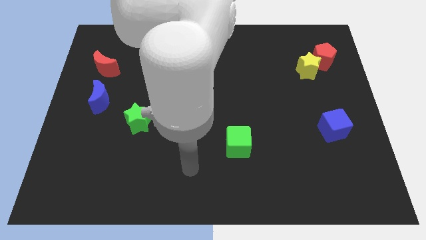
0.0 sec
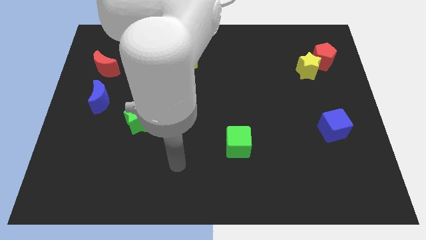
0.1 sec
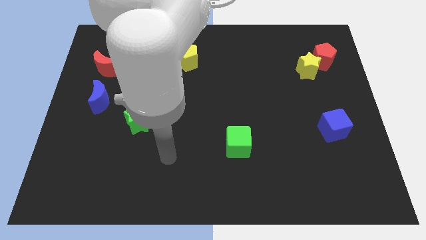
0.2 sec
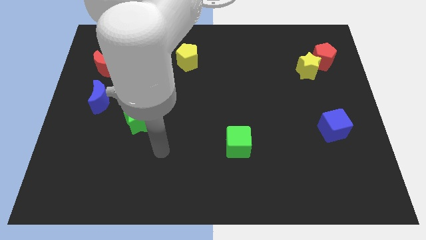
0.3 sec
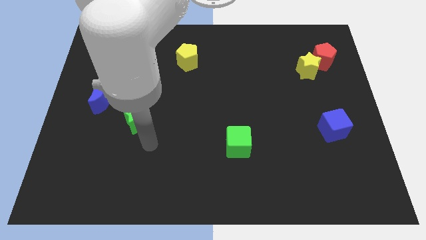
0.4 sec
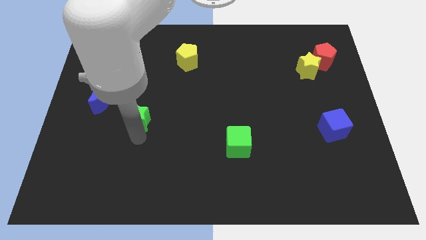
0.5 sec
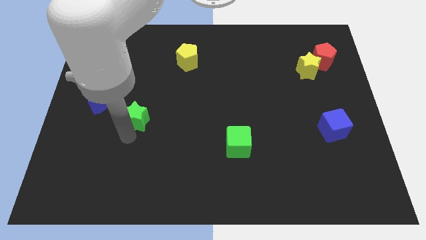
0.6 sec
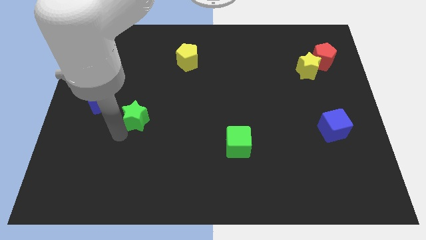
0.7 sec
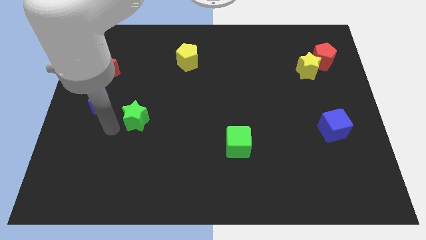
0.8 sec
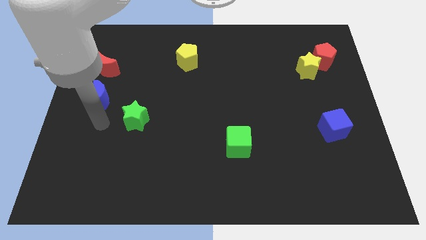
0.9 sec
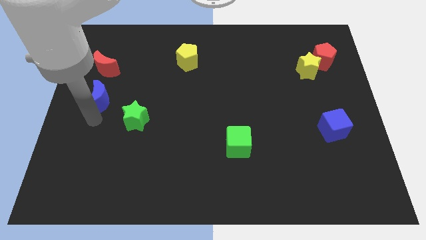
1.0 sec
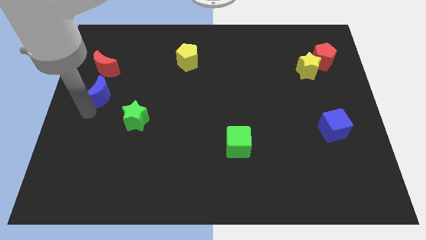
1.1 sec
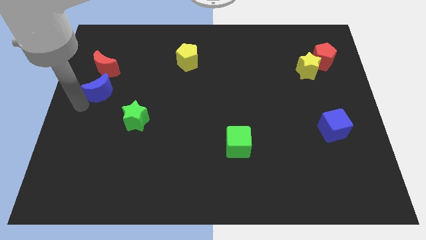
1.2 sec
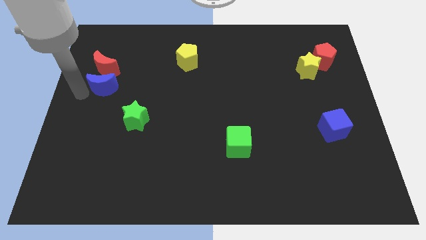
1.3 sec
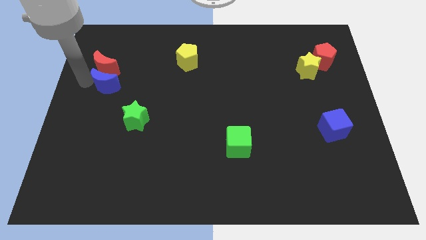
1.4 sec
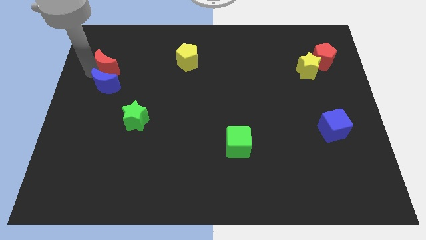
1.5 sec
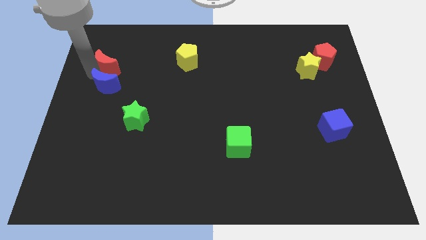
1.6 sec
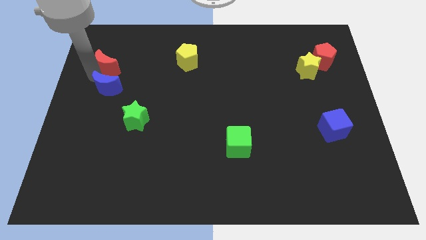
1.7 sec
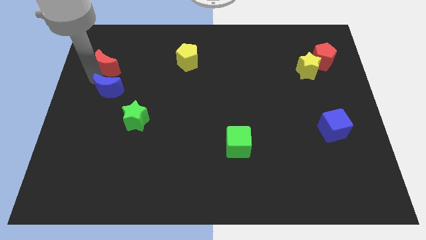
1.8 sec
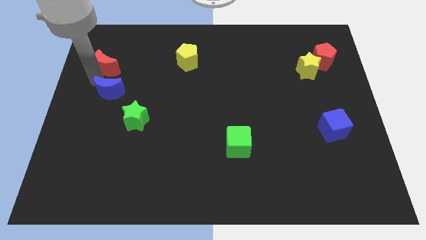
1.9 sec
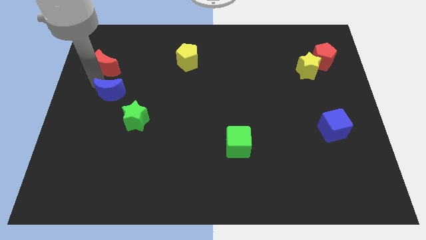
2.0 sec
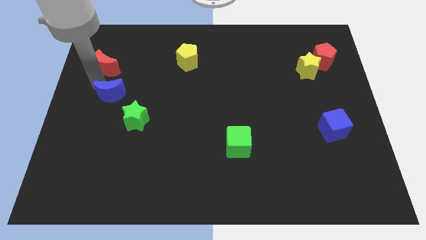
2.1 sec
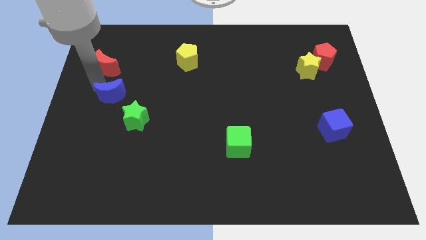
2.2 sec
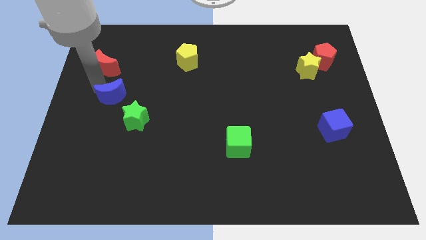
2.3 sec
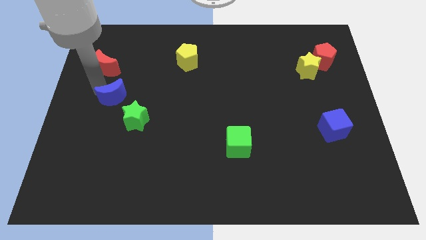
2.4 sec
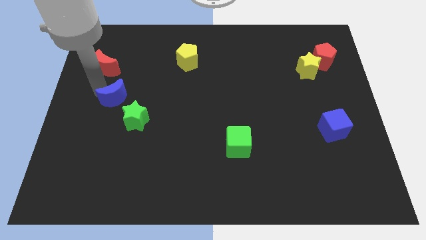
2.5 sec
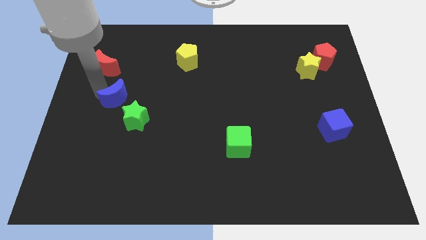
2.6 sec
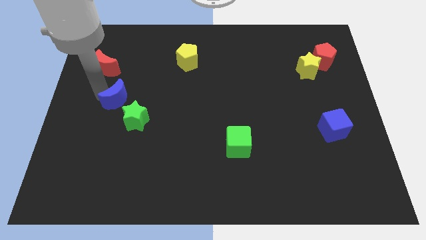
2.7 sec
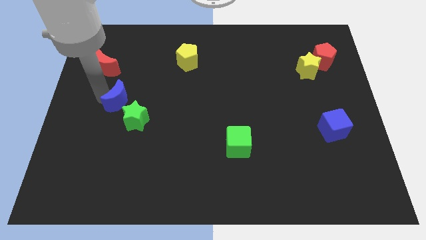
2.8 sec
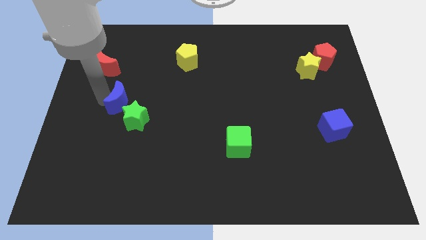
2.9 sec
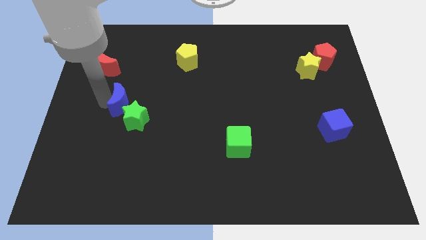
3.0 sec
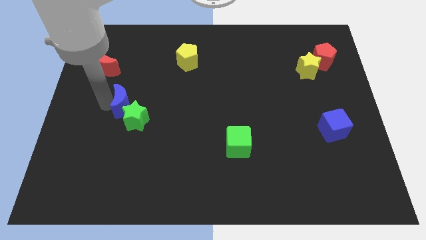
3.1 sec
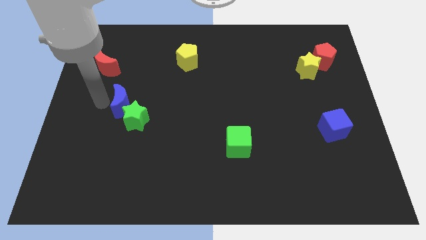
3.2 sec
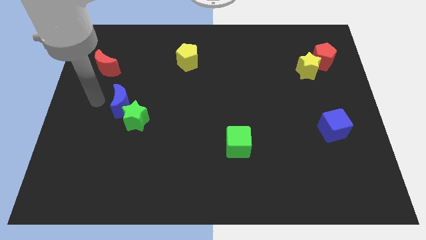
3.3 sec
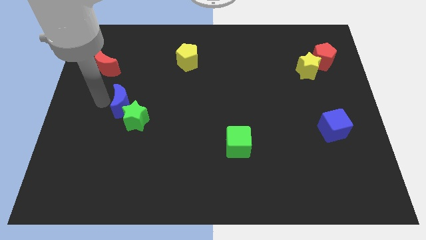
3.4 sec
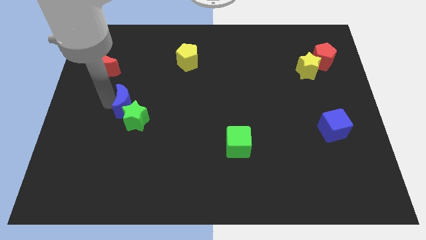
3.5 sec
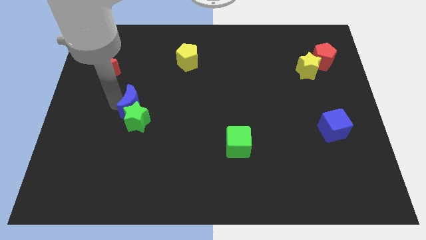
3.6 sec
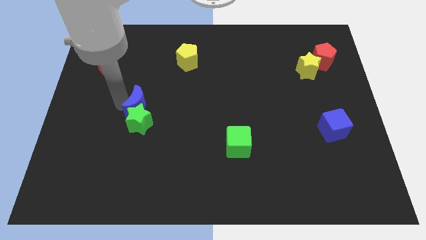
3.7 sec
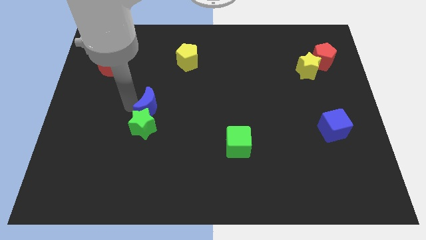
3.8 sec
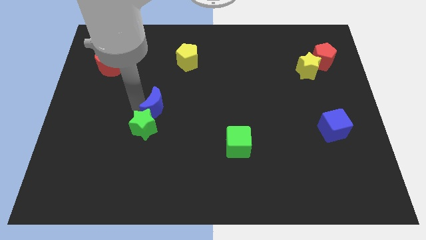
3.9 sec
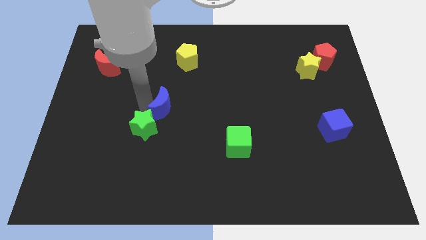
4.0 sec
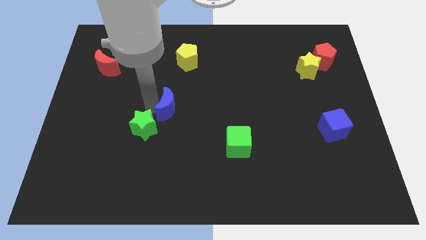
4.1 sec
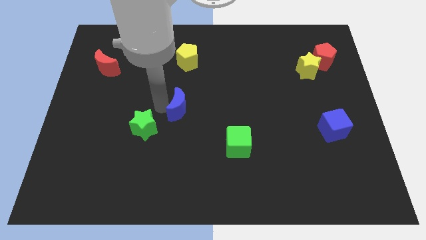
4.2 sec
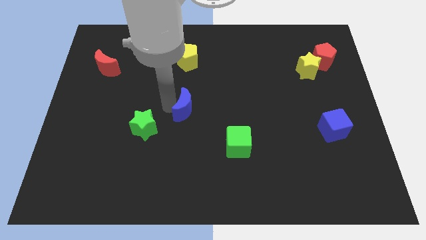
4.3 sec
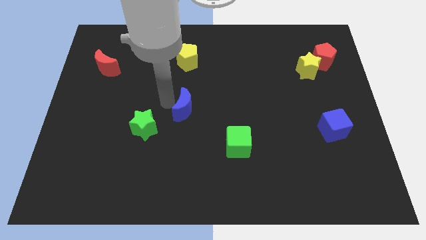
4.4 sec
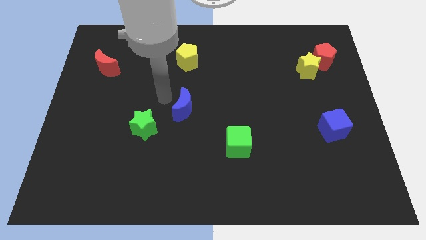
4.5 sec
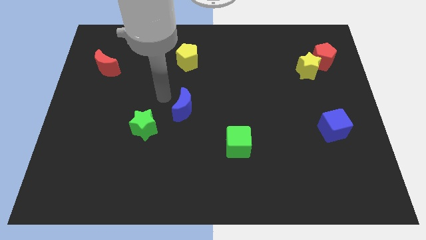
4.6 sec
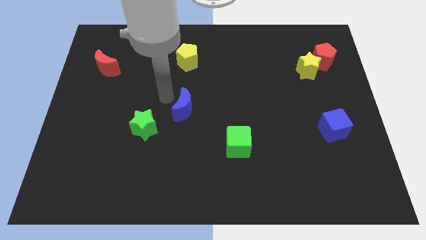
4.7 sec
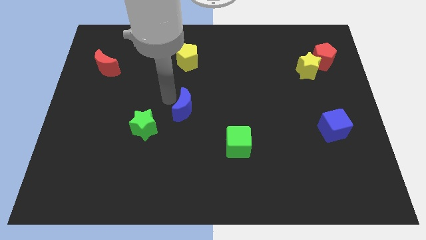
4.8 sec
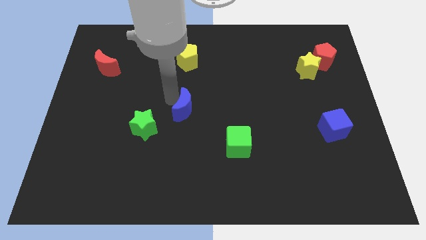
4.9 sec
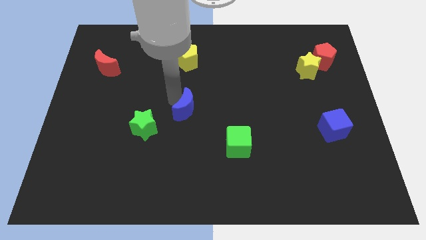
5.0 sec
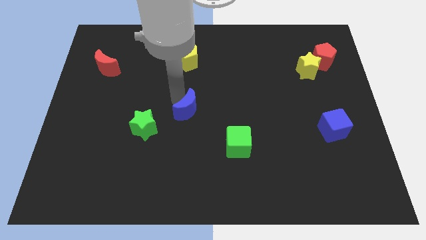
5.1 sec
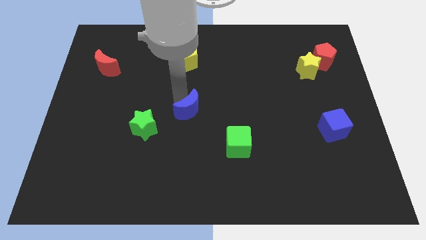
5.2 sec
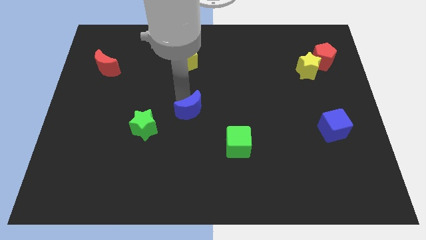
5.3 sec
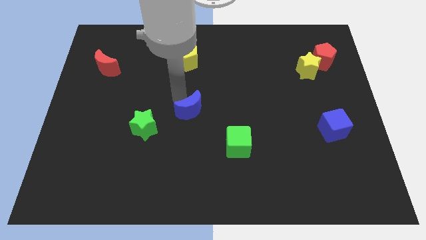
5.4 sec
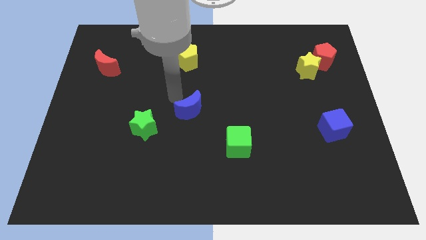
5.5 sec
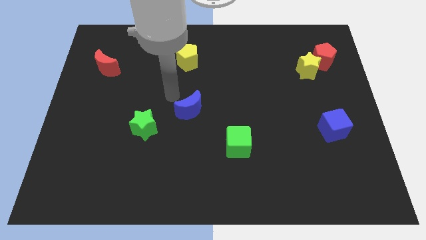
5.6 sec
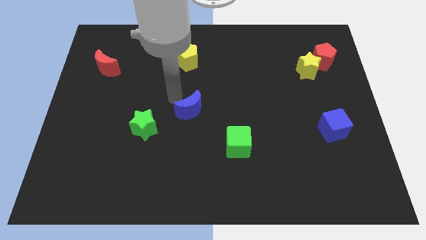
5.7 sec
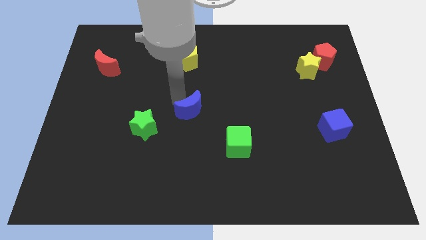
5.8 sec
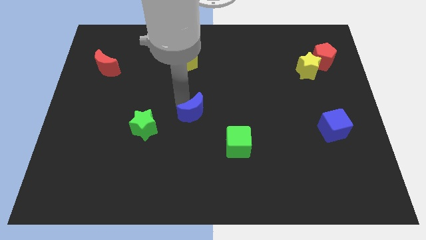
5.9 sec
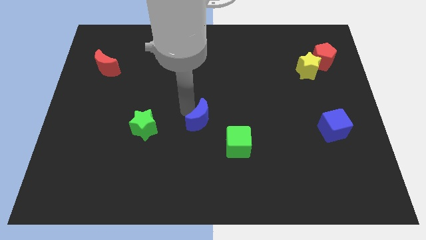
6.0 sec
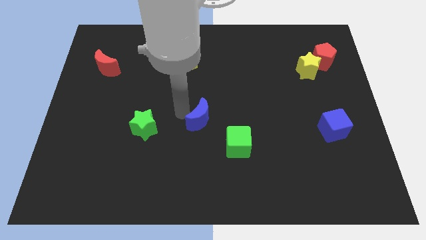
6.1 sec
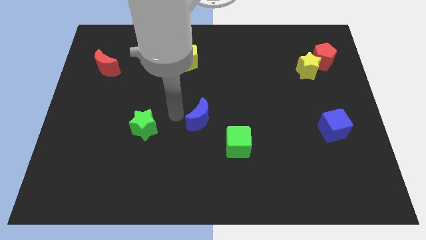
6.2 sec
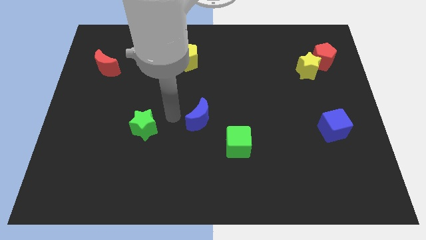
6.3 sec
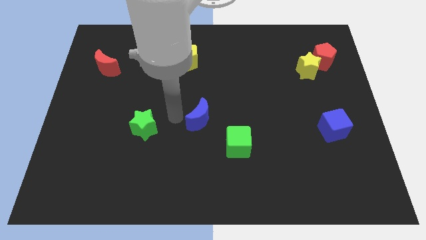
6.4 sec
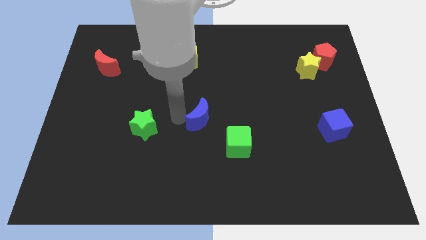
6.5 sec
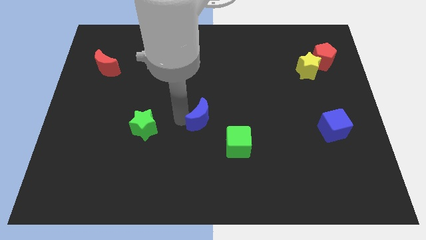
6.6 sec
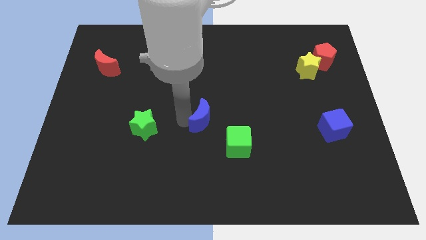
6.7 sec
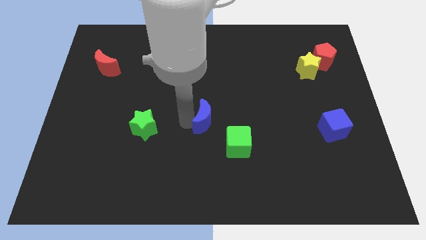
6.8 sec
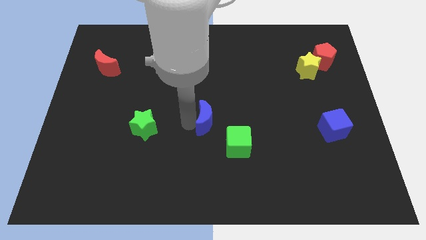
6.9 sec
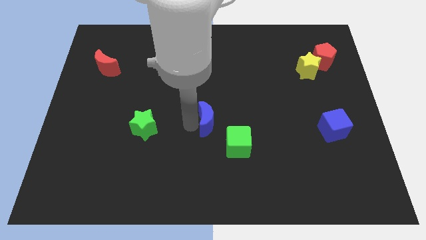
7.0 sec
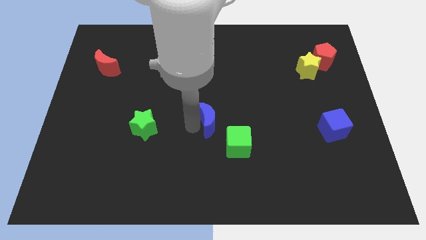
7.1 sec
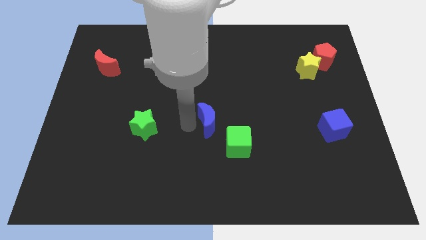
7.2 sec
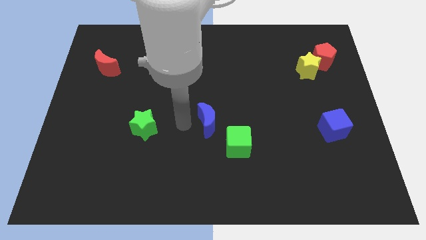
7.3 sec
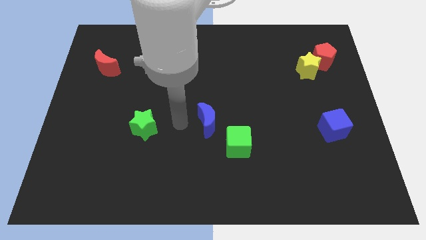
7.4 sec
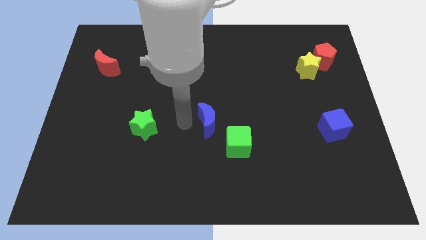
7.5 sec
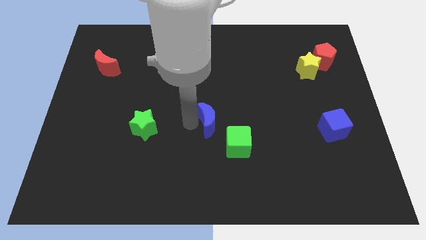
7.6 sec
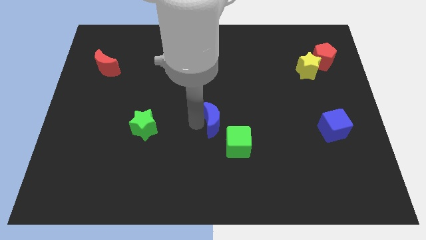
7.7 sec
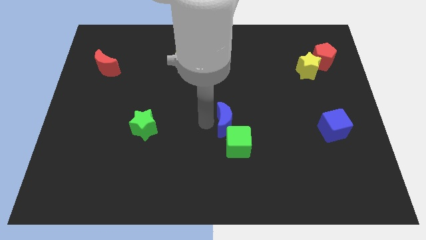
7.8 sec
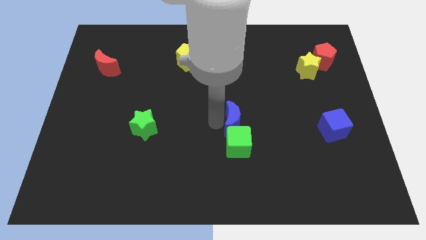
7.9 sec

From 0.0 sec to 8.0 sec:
move the blue moon diagonally up and to the right of the green cube

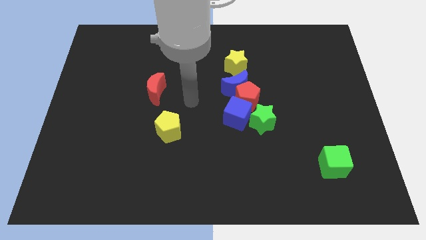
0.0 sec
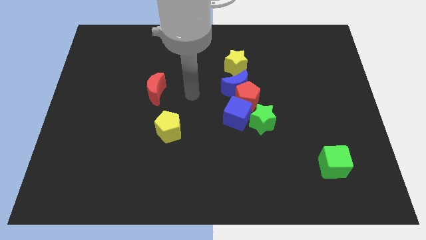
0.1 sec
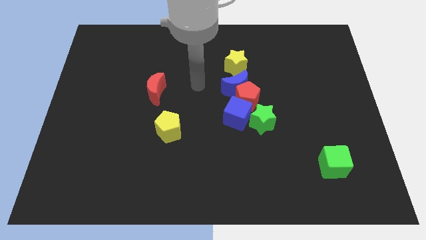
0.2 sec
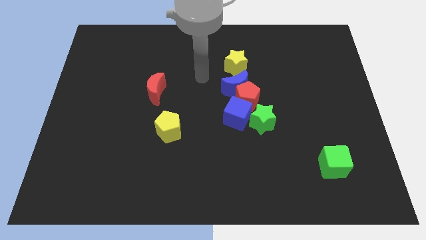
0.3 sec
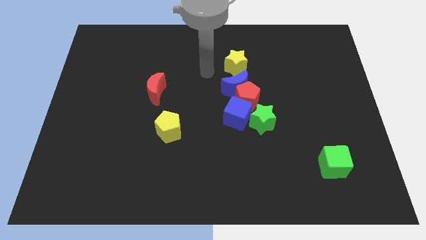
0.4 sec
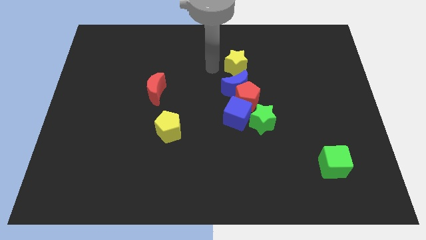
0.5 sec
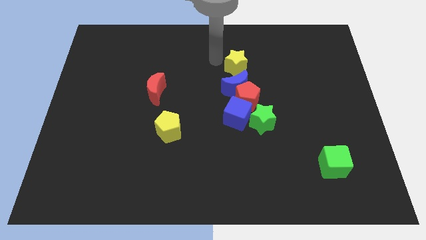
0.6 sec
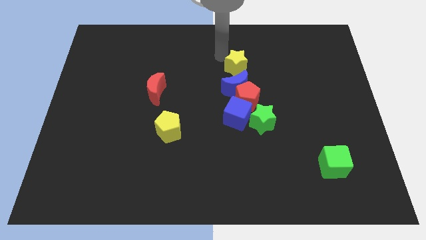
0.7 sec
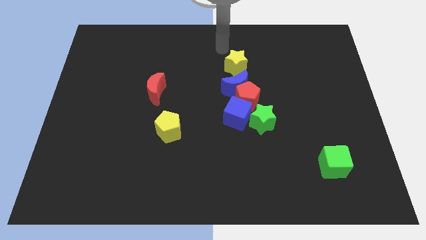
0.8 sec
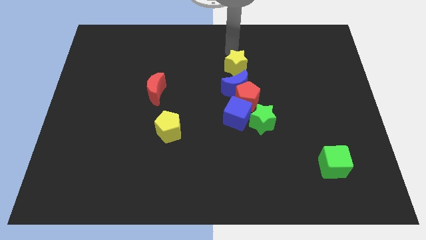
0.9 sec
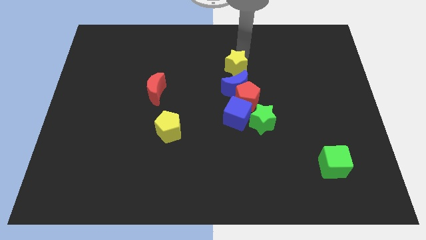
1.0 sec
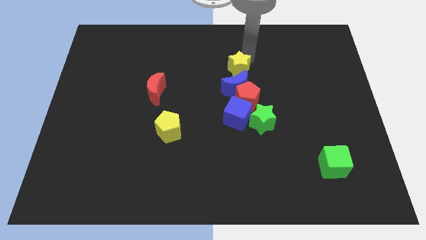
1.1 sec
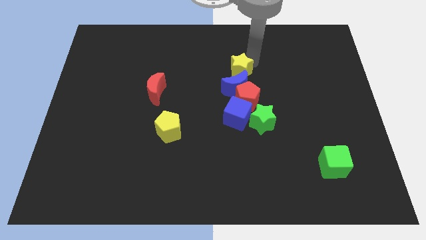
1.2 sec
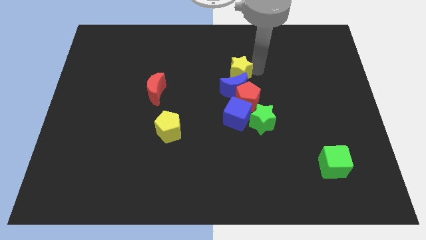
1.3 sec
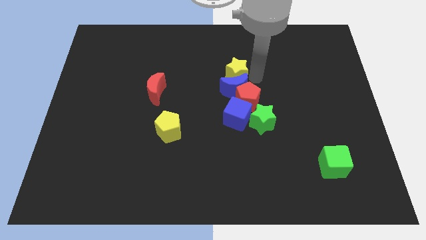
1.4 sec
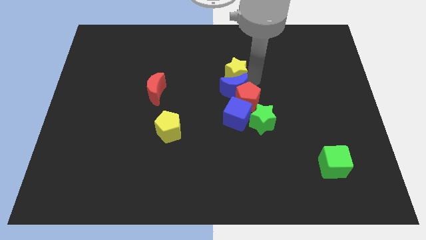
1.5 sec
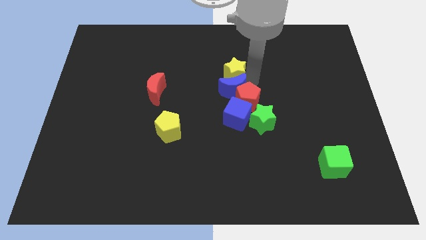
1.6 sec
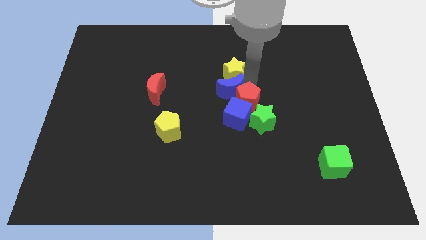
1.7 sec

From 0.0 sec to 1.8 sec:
slide the blue moon to the top left side of the blue cube
